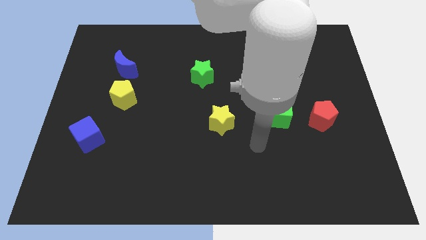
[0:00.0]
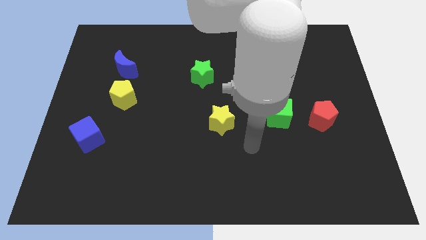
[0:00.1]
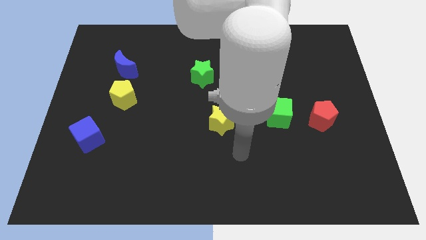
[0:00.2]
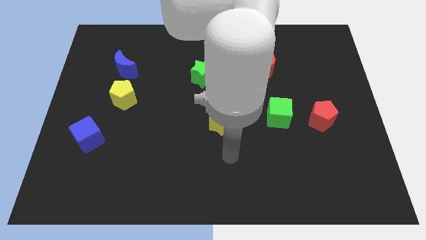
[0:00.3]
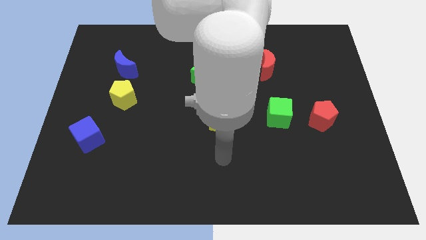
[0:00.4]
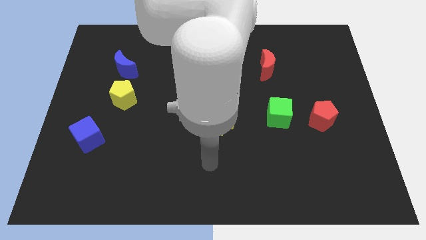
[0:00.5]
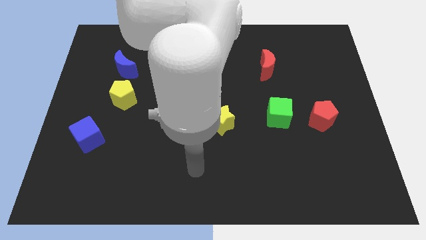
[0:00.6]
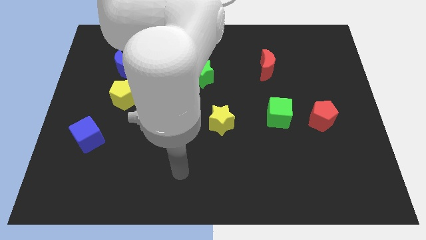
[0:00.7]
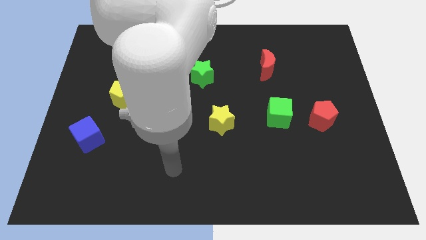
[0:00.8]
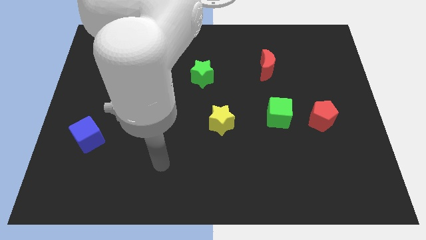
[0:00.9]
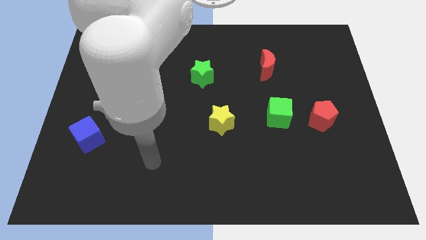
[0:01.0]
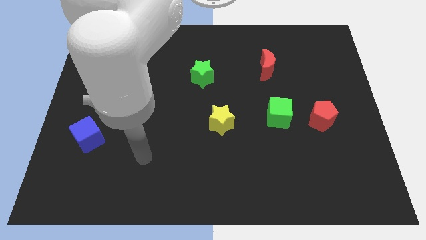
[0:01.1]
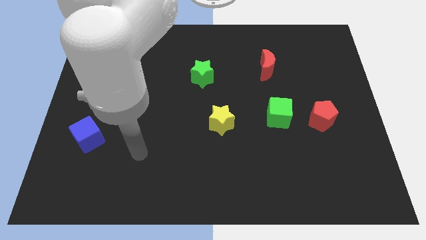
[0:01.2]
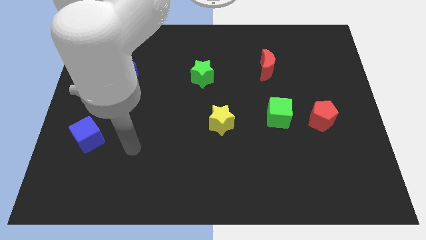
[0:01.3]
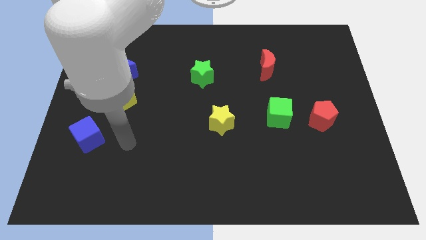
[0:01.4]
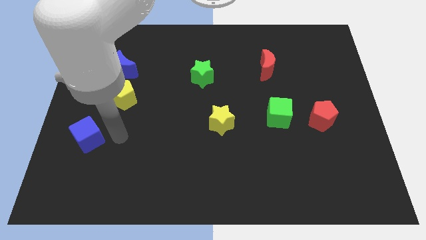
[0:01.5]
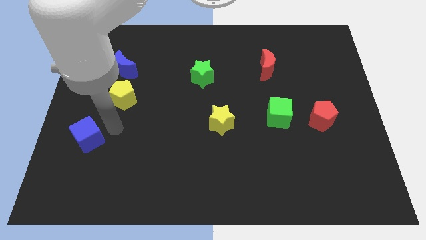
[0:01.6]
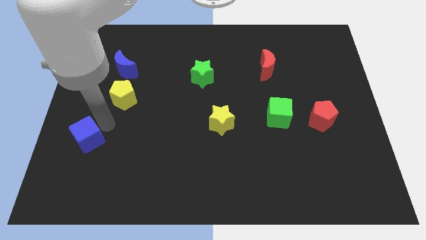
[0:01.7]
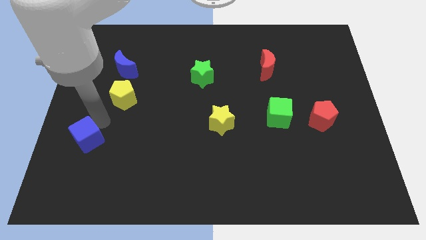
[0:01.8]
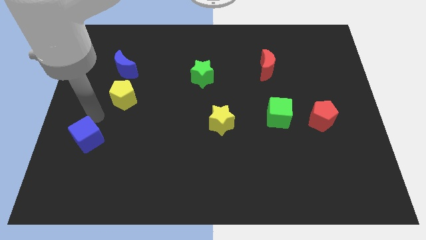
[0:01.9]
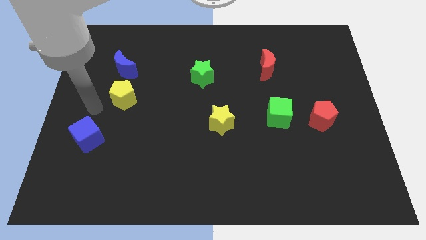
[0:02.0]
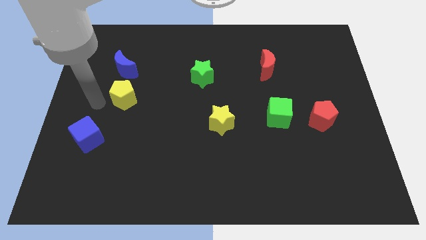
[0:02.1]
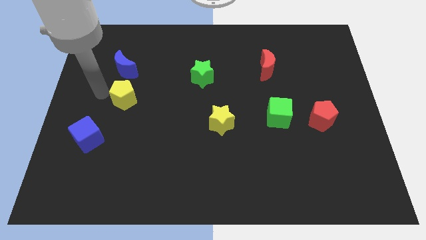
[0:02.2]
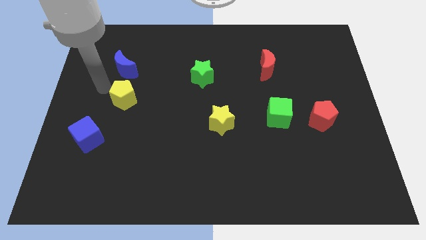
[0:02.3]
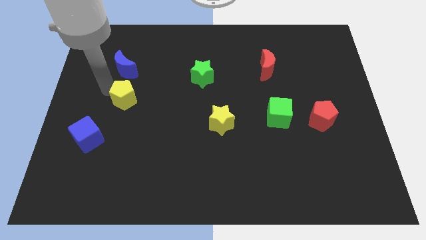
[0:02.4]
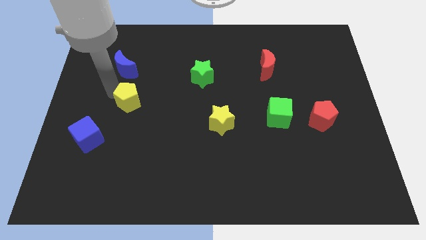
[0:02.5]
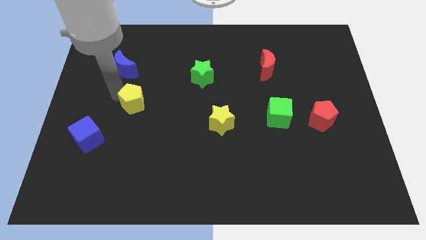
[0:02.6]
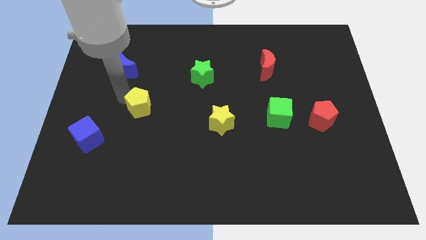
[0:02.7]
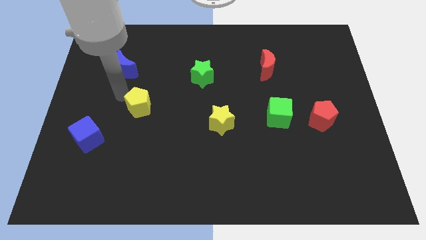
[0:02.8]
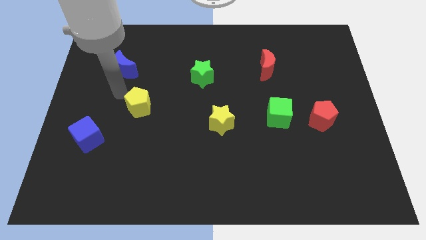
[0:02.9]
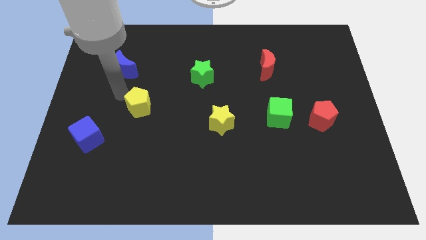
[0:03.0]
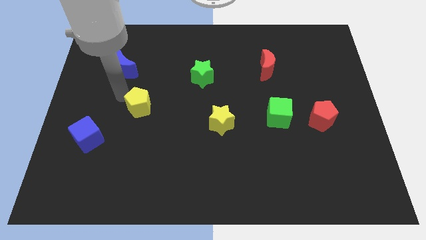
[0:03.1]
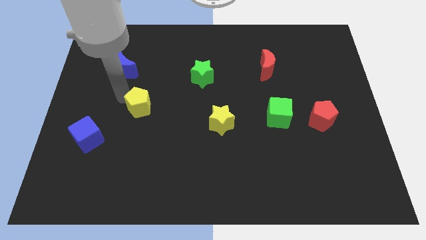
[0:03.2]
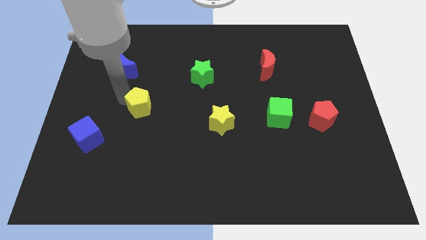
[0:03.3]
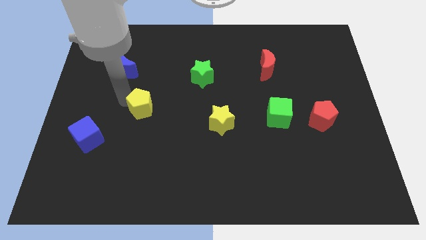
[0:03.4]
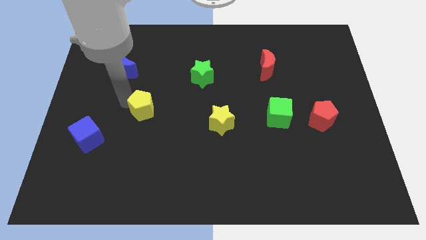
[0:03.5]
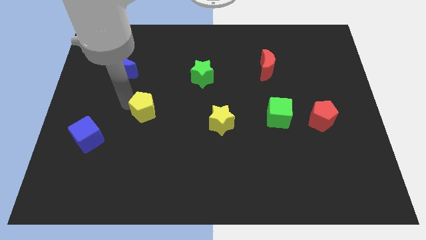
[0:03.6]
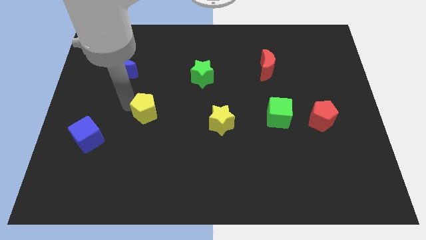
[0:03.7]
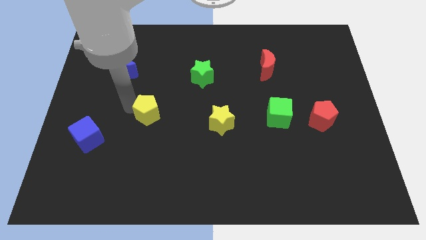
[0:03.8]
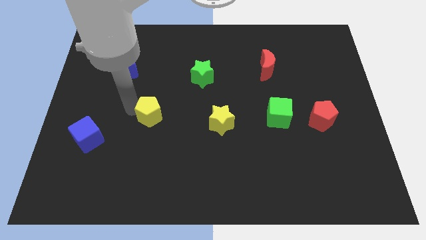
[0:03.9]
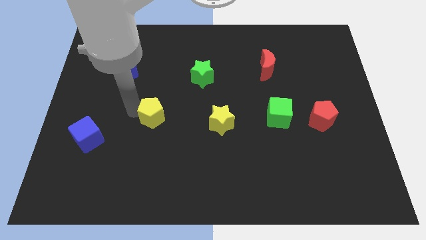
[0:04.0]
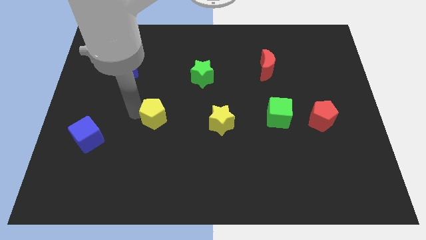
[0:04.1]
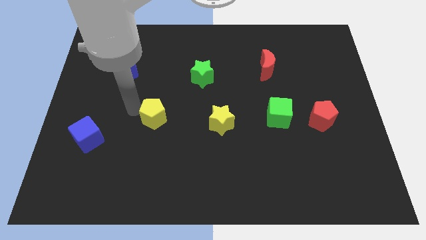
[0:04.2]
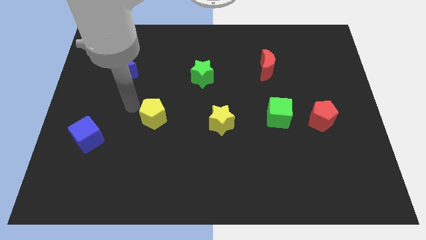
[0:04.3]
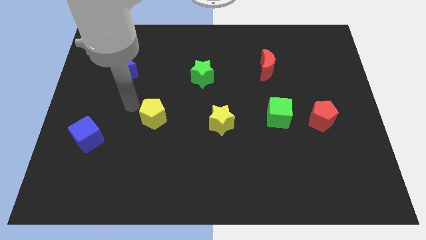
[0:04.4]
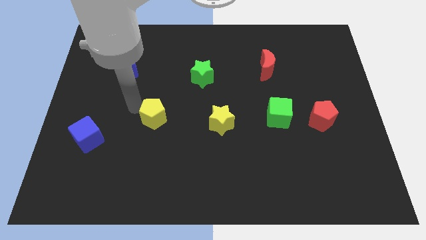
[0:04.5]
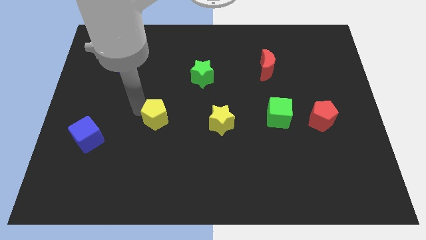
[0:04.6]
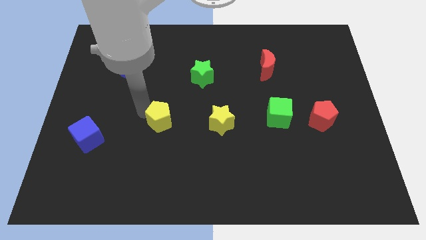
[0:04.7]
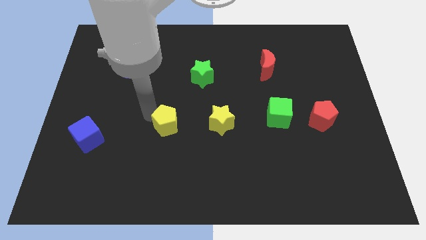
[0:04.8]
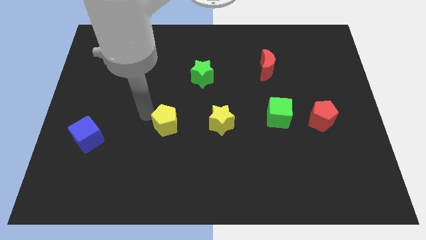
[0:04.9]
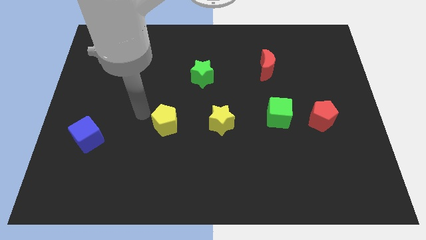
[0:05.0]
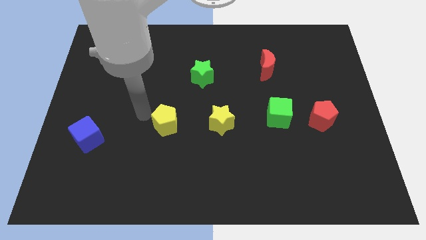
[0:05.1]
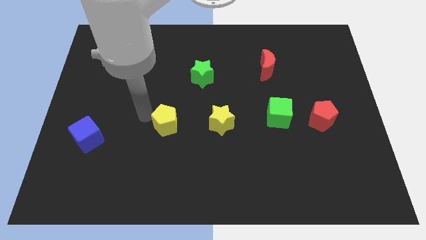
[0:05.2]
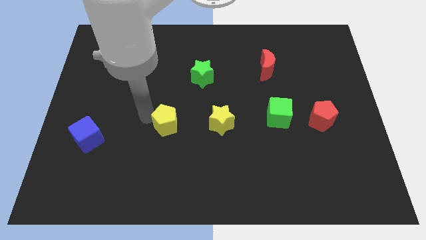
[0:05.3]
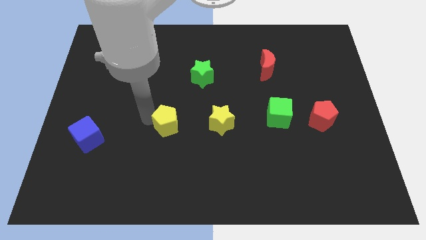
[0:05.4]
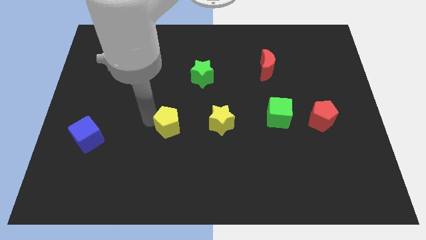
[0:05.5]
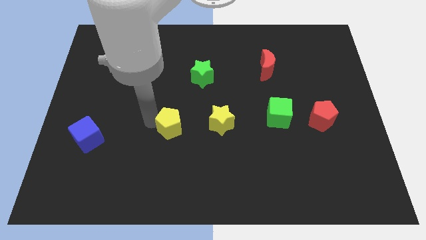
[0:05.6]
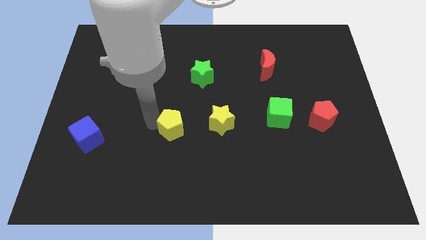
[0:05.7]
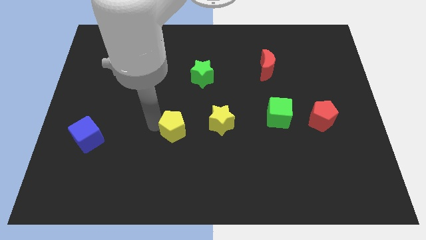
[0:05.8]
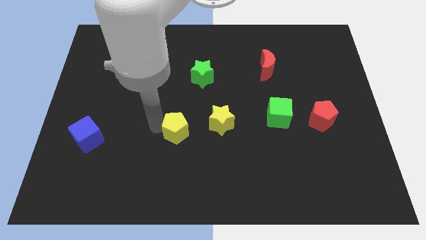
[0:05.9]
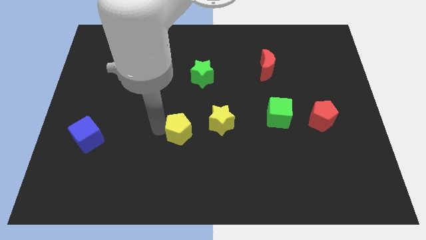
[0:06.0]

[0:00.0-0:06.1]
move the yellow pentagon to the bottom left of the yellow star

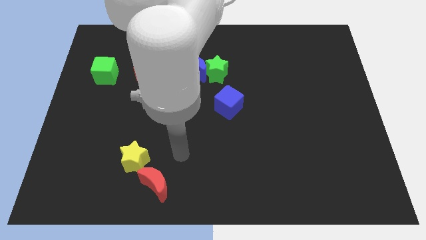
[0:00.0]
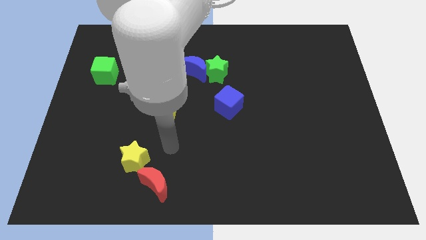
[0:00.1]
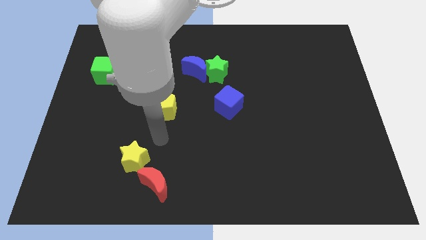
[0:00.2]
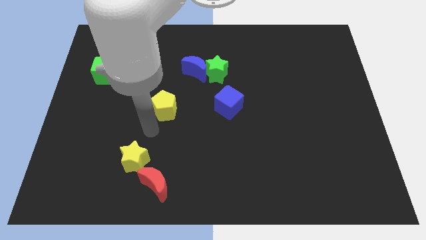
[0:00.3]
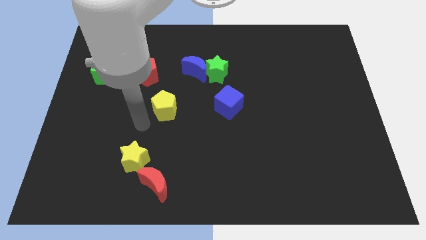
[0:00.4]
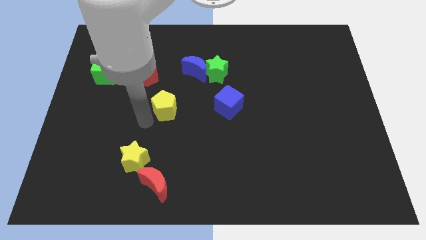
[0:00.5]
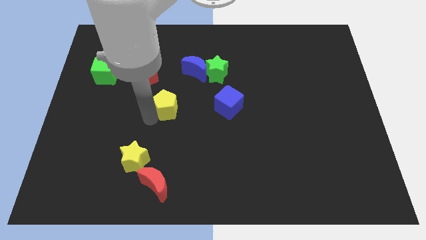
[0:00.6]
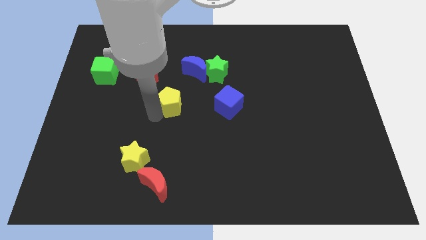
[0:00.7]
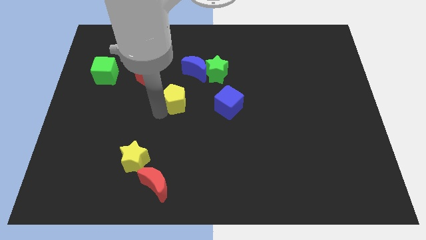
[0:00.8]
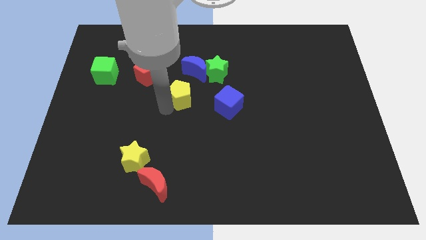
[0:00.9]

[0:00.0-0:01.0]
slide the yellow pentagon to the bottom left side of the green star
